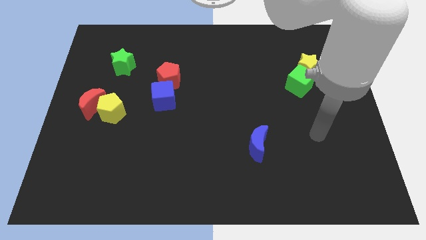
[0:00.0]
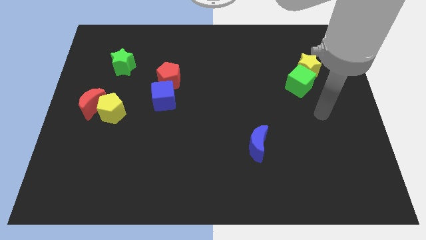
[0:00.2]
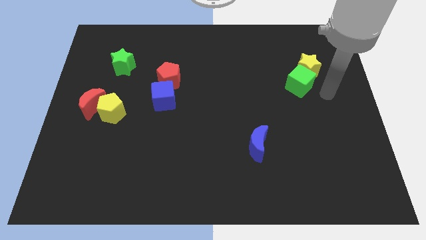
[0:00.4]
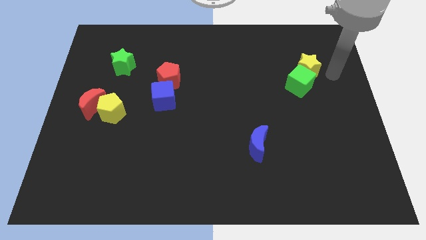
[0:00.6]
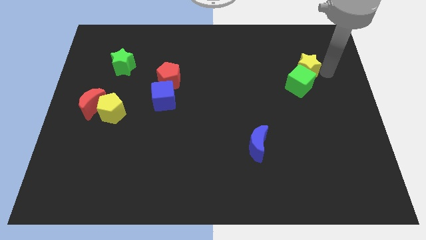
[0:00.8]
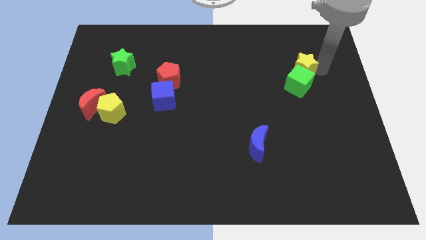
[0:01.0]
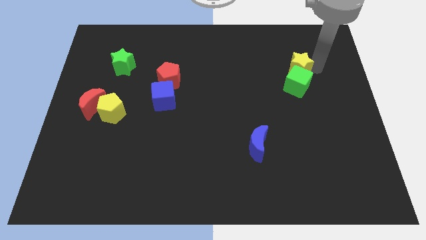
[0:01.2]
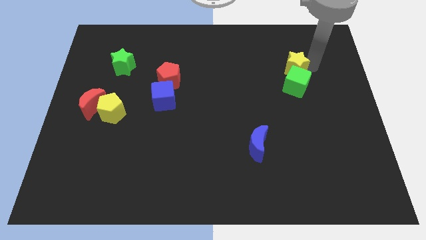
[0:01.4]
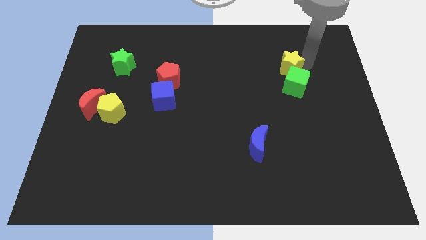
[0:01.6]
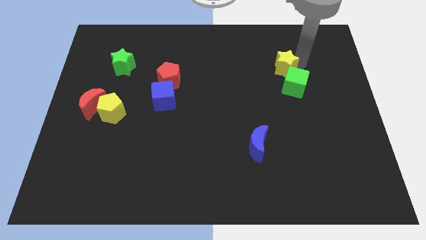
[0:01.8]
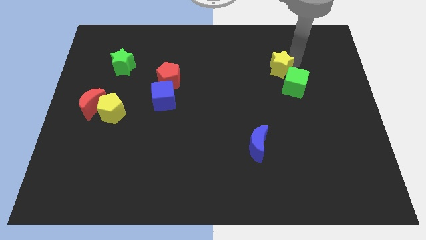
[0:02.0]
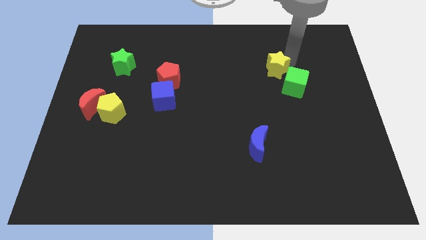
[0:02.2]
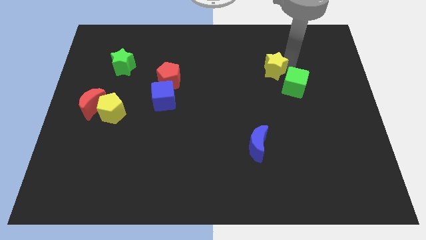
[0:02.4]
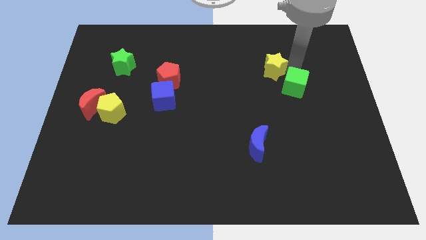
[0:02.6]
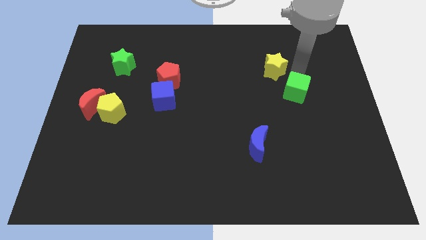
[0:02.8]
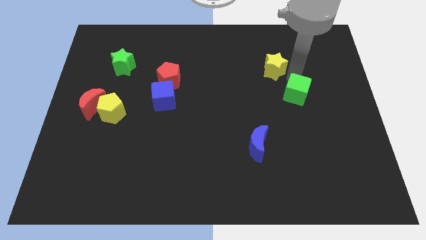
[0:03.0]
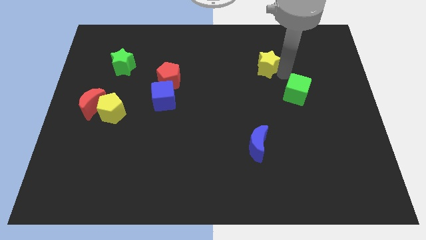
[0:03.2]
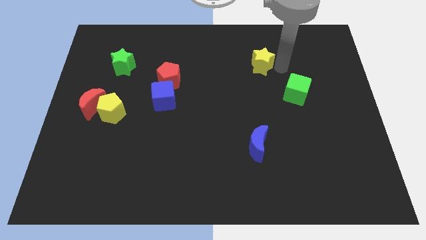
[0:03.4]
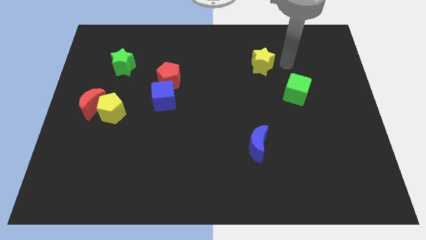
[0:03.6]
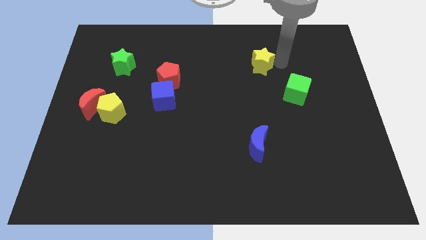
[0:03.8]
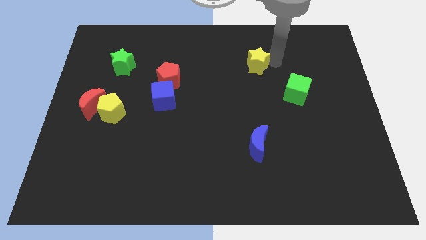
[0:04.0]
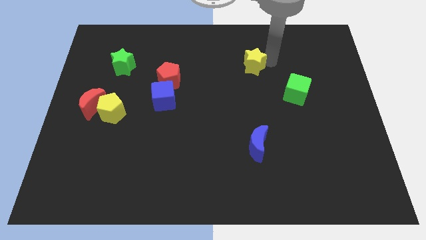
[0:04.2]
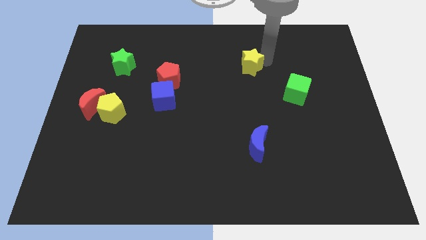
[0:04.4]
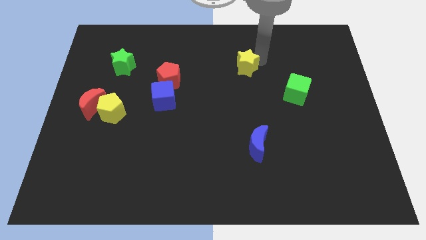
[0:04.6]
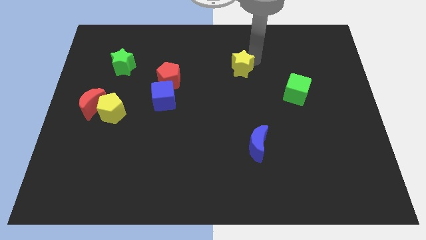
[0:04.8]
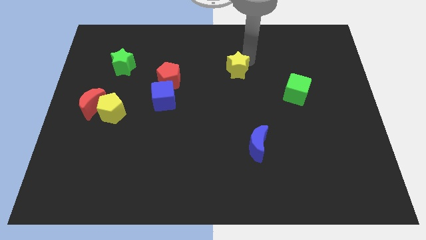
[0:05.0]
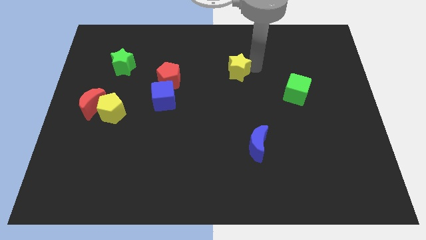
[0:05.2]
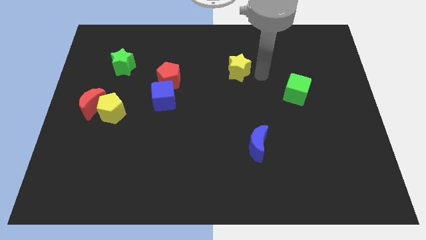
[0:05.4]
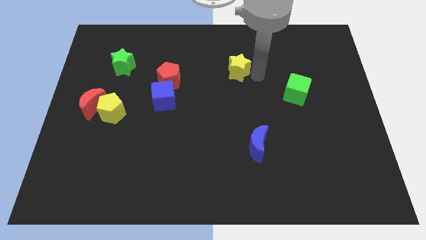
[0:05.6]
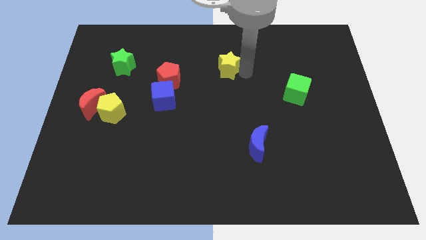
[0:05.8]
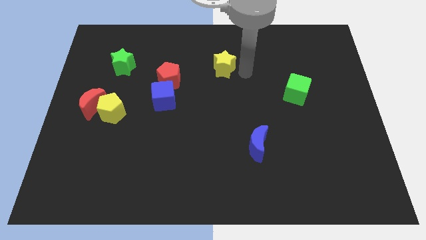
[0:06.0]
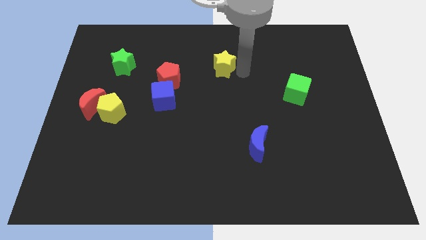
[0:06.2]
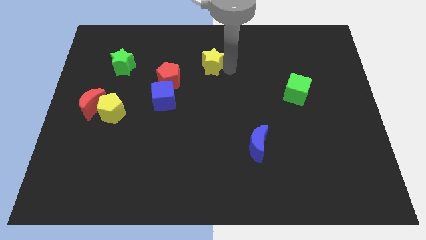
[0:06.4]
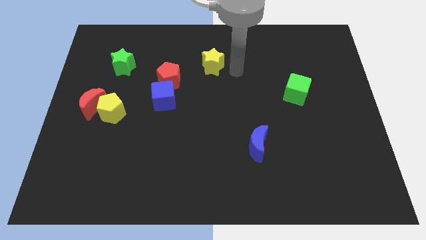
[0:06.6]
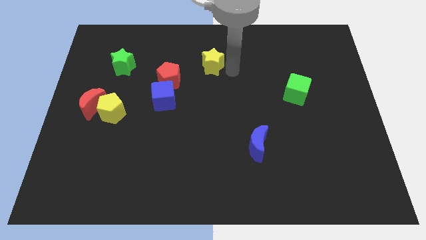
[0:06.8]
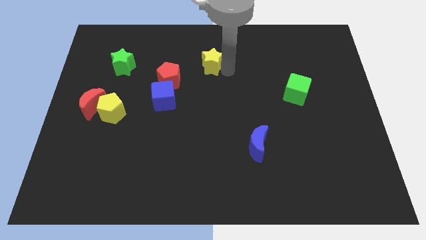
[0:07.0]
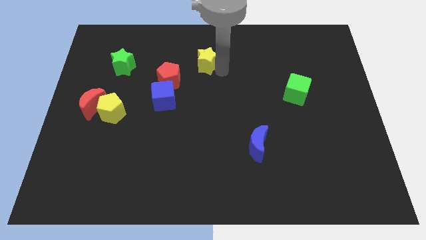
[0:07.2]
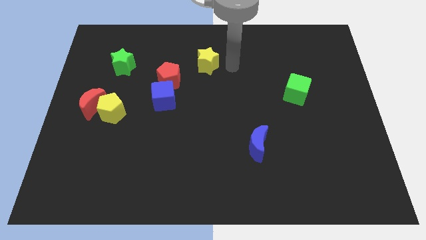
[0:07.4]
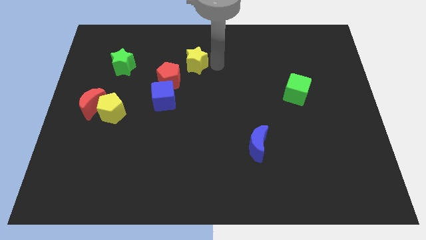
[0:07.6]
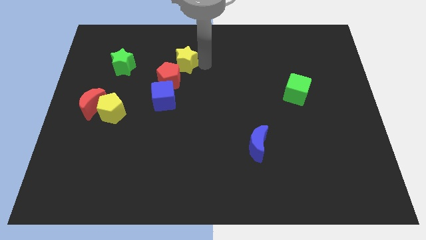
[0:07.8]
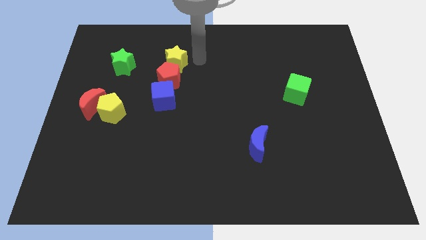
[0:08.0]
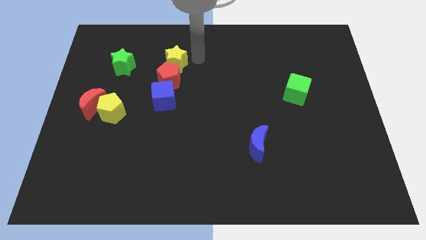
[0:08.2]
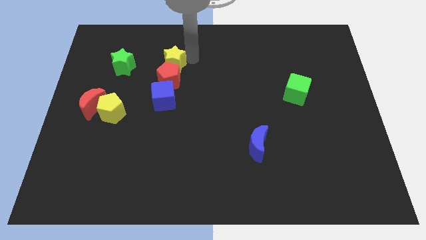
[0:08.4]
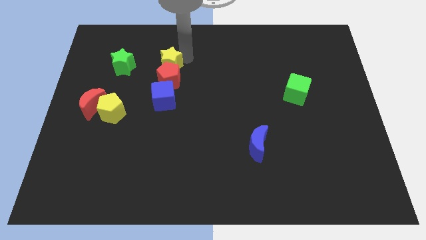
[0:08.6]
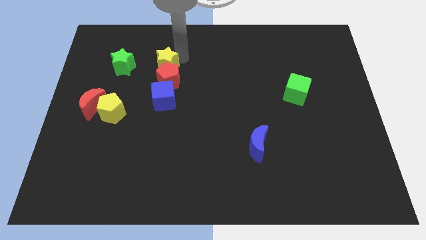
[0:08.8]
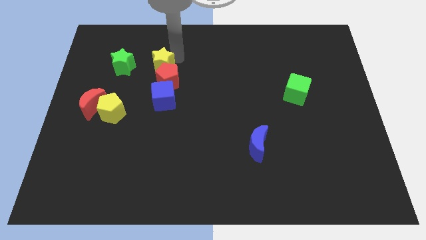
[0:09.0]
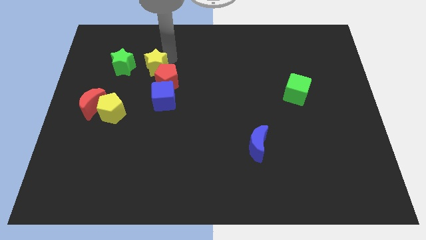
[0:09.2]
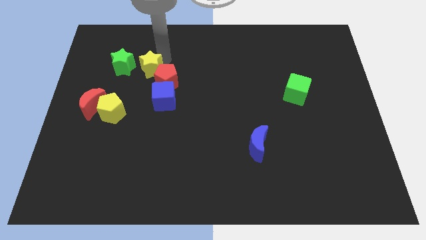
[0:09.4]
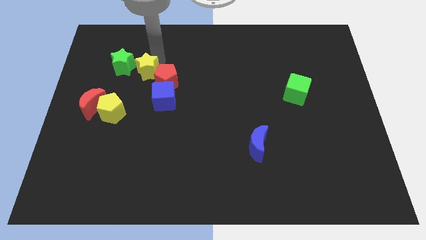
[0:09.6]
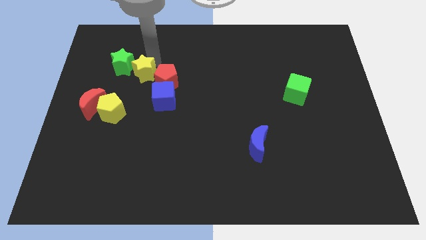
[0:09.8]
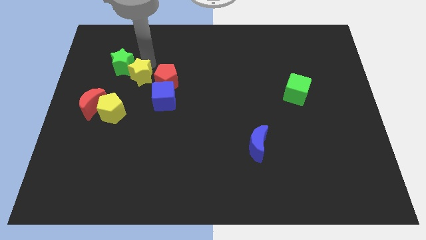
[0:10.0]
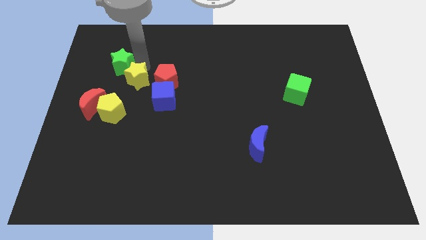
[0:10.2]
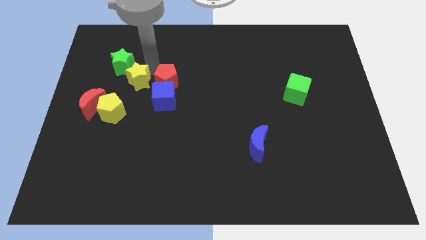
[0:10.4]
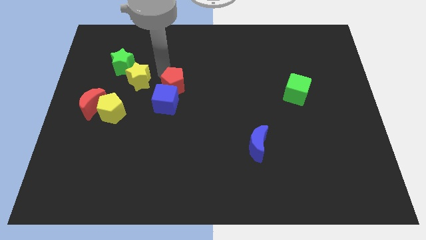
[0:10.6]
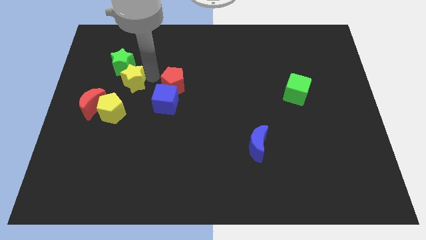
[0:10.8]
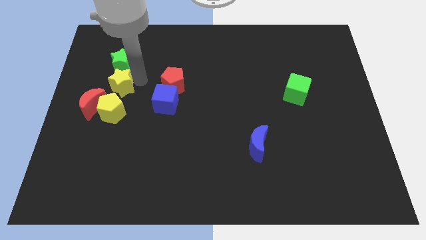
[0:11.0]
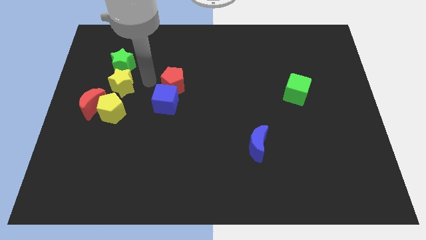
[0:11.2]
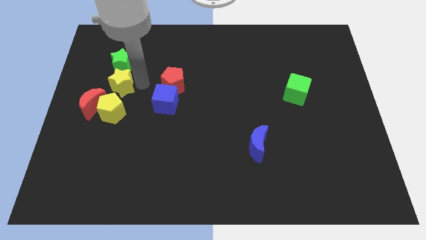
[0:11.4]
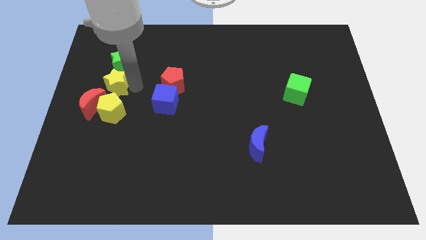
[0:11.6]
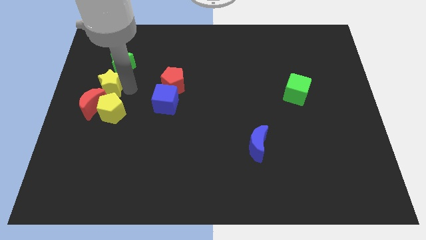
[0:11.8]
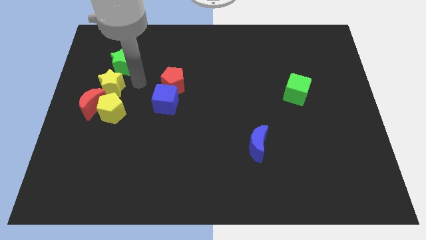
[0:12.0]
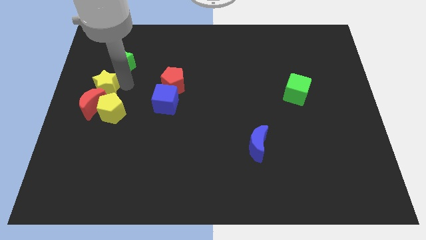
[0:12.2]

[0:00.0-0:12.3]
push the yellow star to the center left
